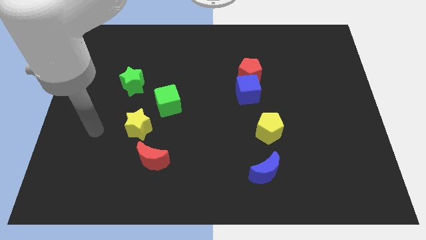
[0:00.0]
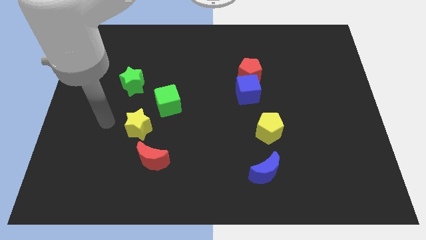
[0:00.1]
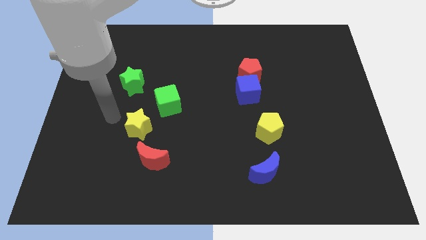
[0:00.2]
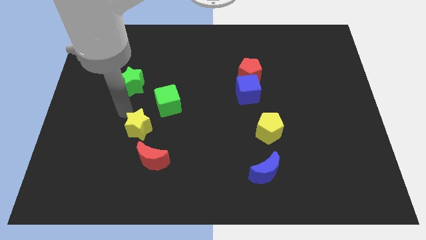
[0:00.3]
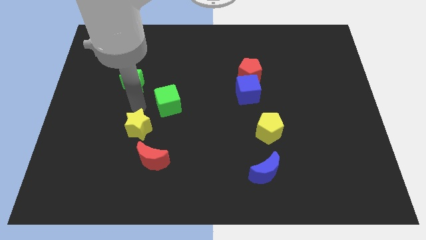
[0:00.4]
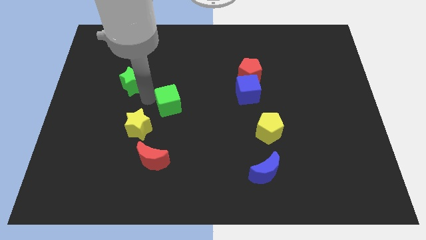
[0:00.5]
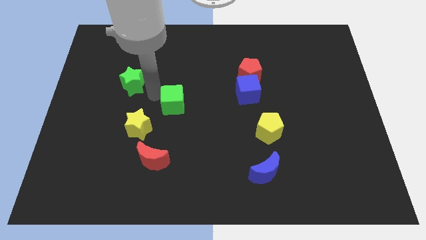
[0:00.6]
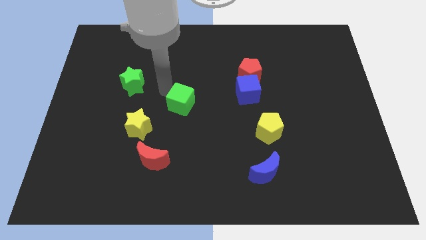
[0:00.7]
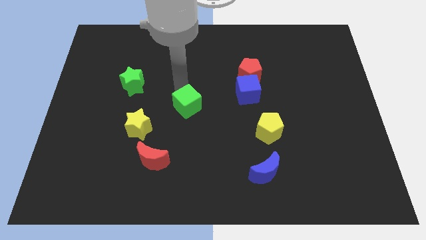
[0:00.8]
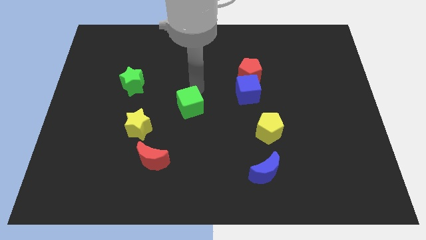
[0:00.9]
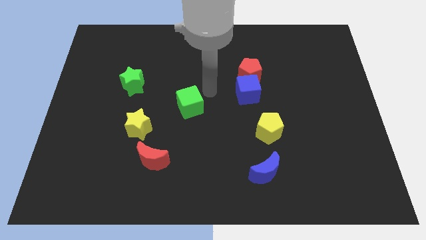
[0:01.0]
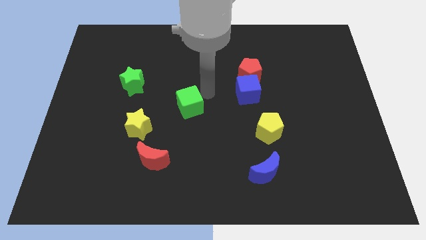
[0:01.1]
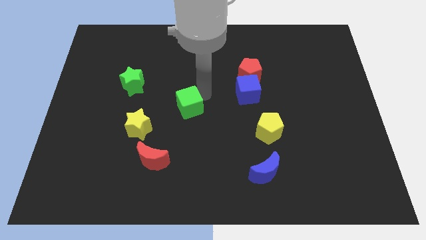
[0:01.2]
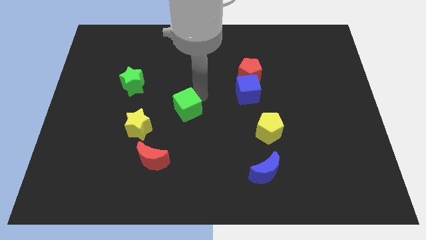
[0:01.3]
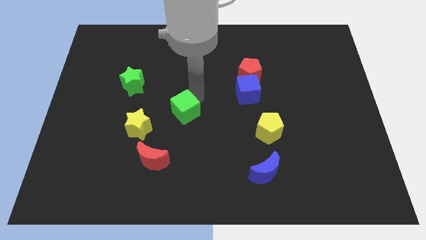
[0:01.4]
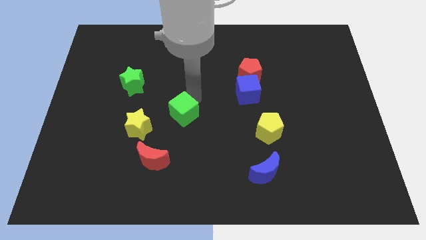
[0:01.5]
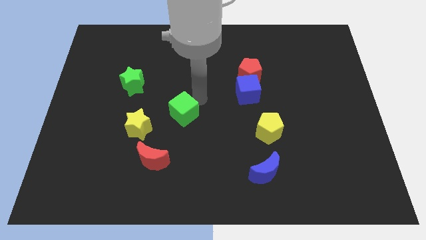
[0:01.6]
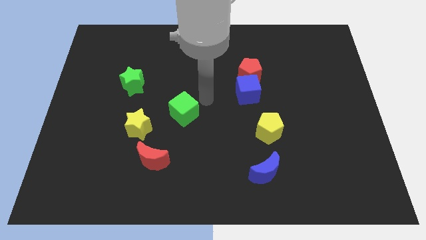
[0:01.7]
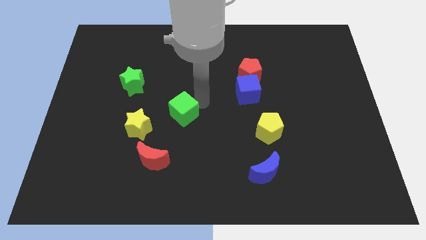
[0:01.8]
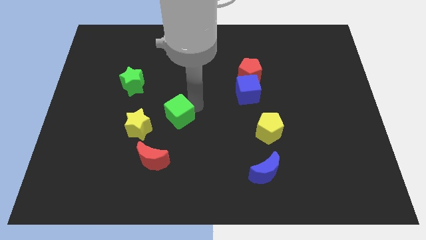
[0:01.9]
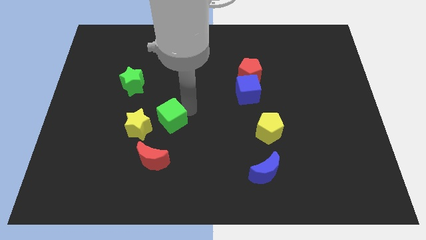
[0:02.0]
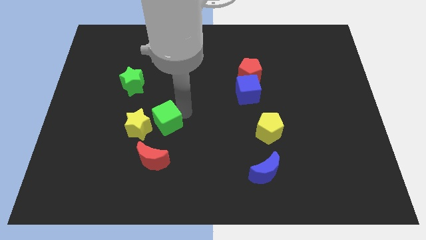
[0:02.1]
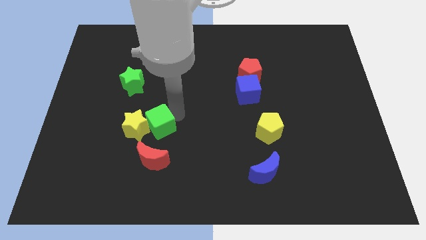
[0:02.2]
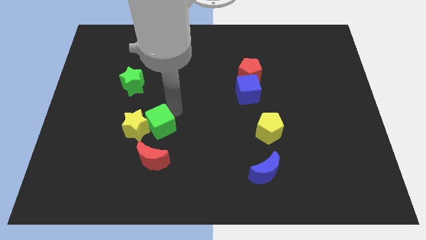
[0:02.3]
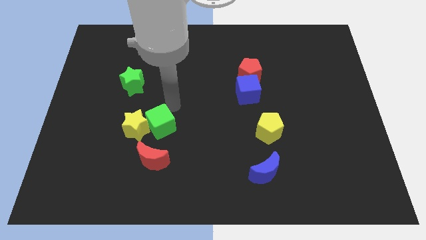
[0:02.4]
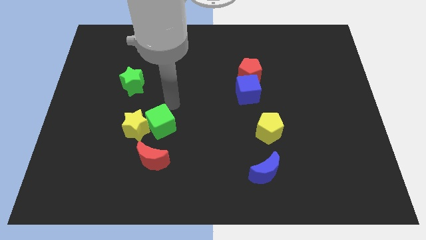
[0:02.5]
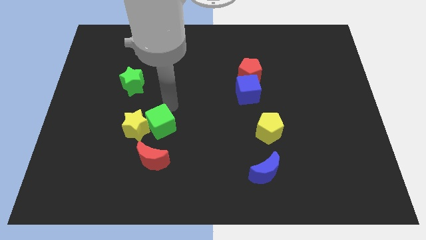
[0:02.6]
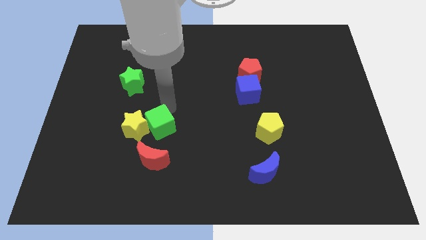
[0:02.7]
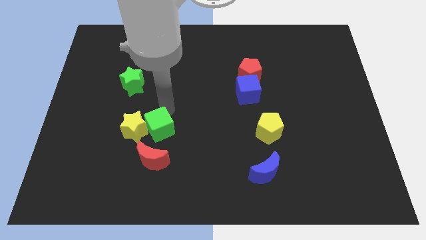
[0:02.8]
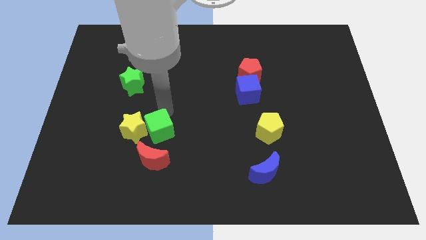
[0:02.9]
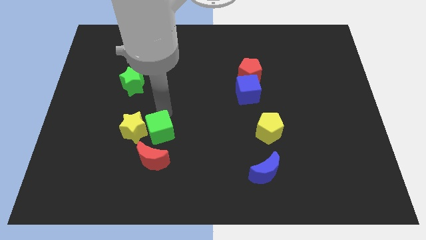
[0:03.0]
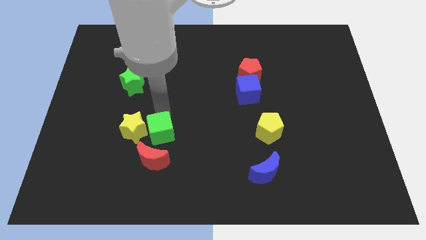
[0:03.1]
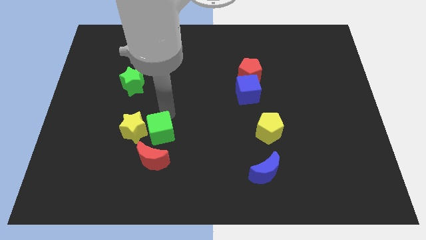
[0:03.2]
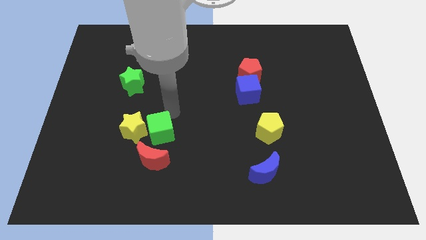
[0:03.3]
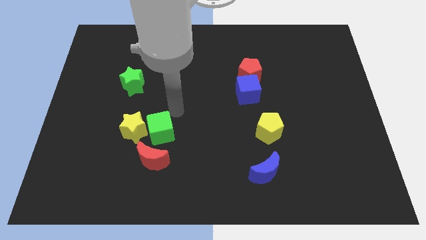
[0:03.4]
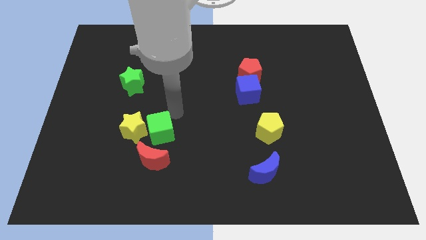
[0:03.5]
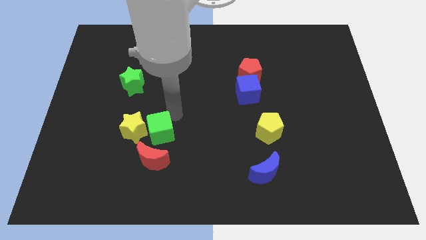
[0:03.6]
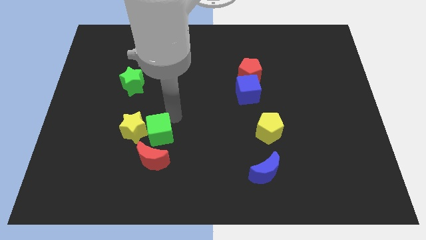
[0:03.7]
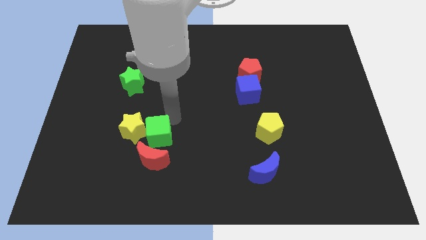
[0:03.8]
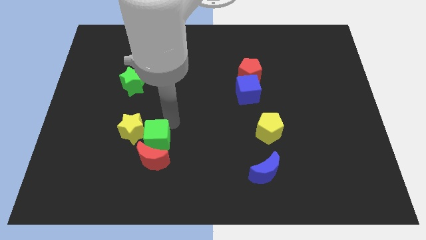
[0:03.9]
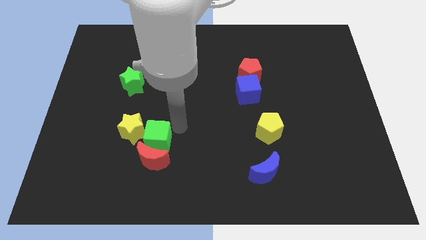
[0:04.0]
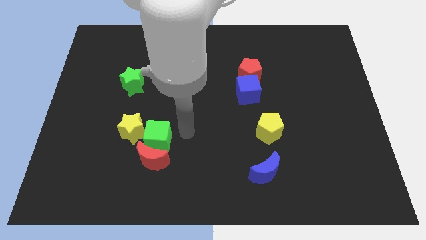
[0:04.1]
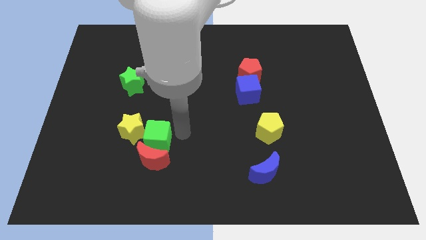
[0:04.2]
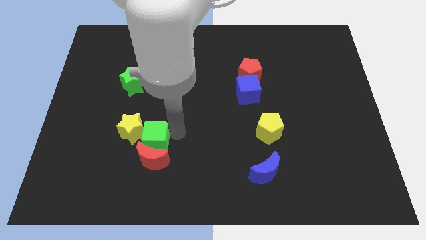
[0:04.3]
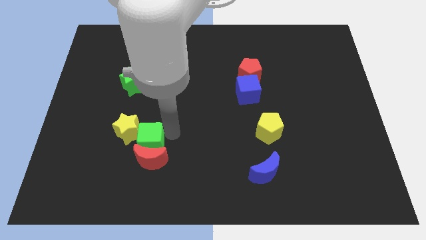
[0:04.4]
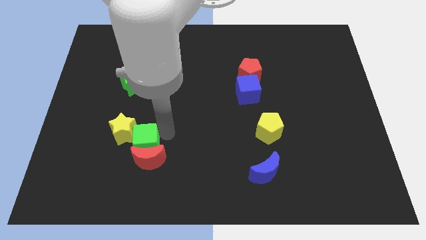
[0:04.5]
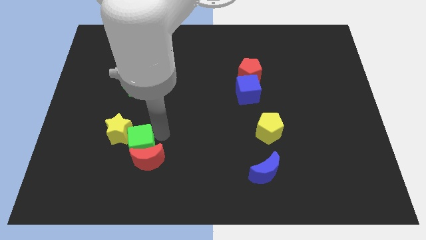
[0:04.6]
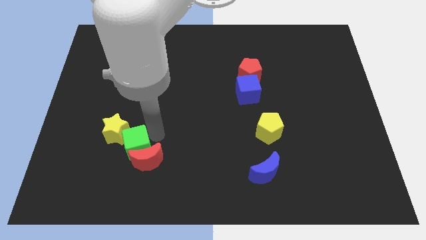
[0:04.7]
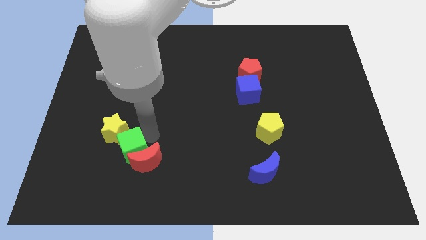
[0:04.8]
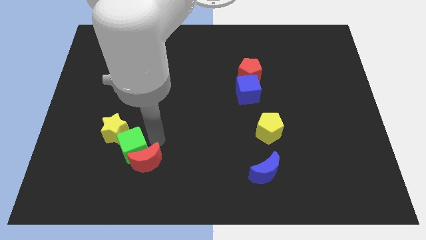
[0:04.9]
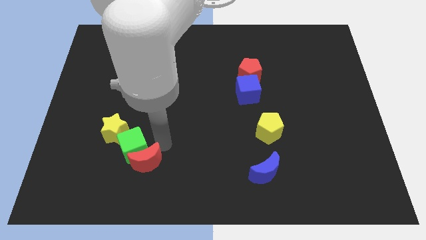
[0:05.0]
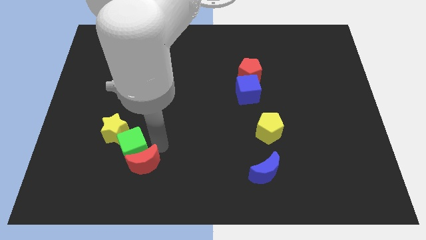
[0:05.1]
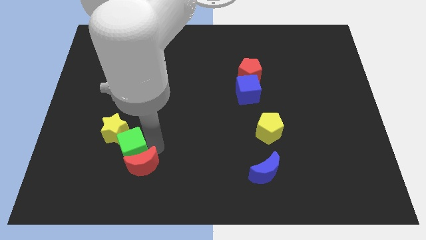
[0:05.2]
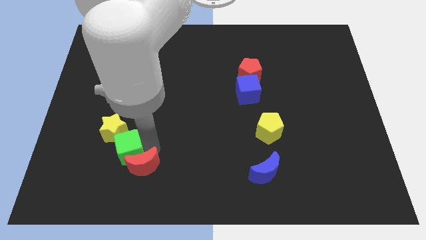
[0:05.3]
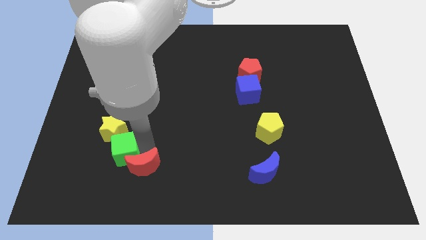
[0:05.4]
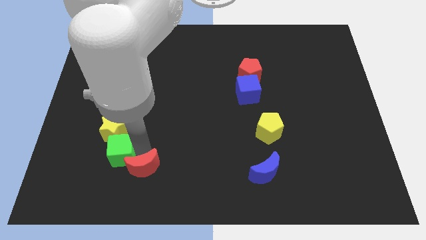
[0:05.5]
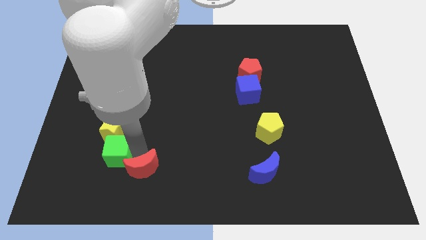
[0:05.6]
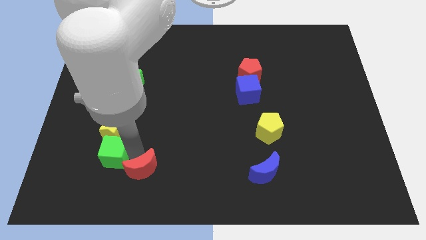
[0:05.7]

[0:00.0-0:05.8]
move the green cube to the bottom left side of the yellow star

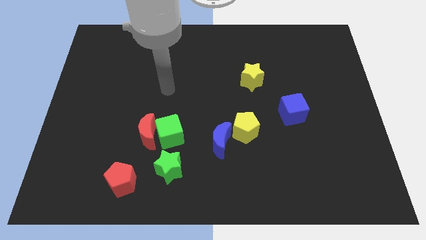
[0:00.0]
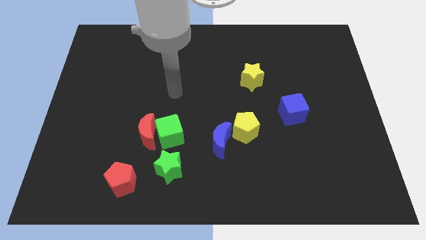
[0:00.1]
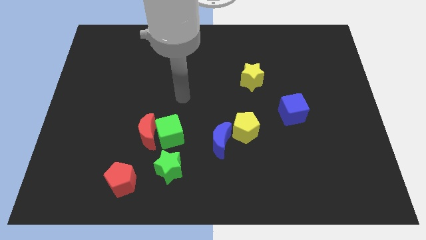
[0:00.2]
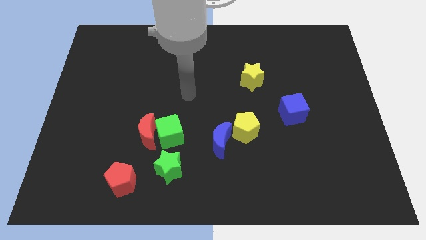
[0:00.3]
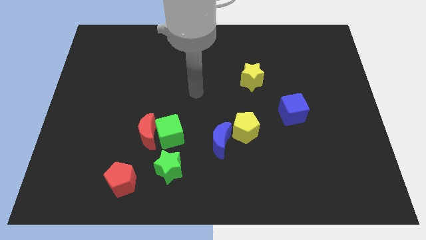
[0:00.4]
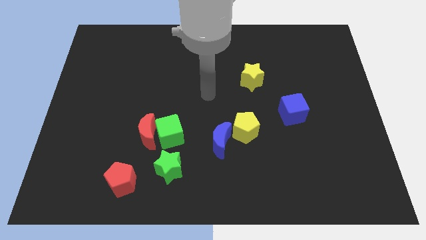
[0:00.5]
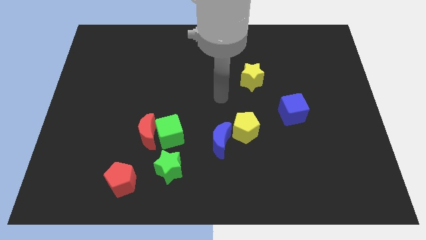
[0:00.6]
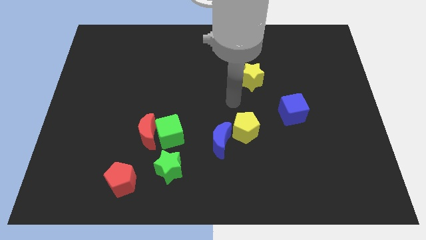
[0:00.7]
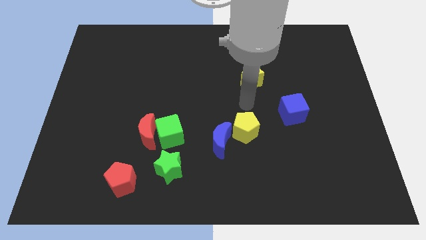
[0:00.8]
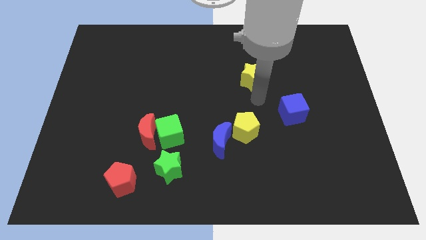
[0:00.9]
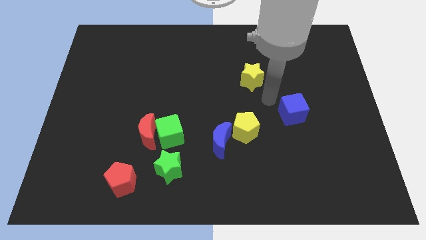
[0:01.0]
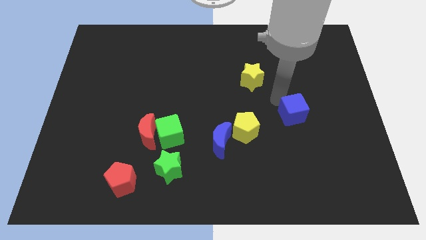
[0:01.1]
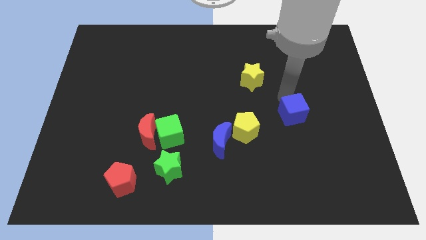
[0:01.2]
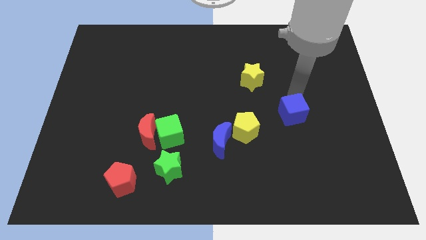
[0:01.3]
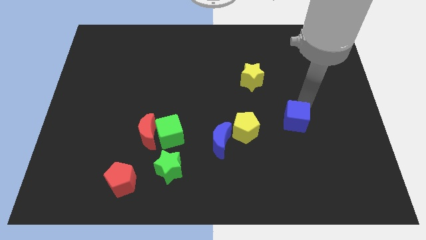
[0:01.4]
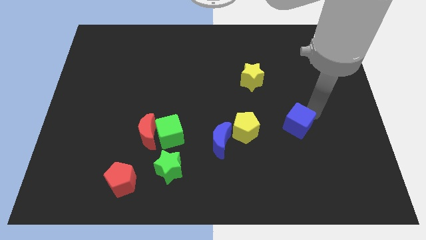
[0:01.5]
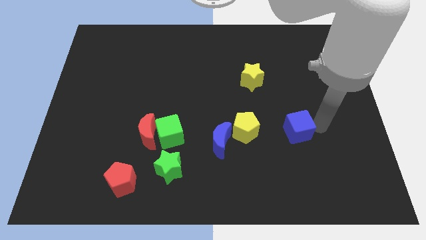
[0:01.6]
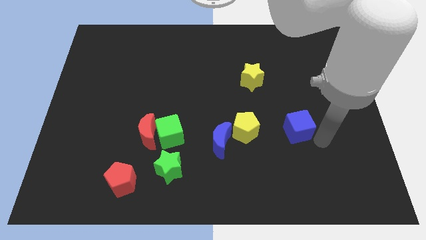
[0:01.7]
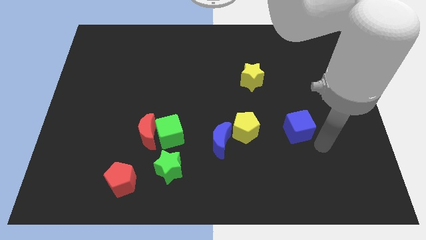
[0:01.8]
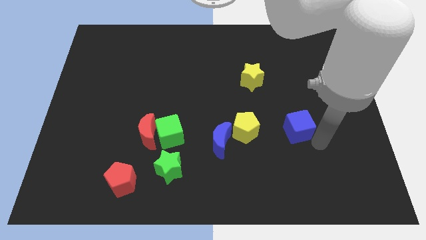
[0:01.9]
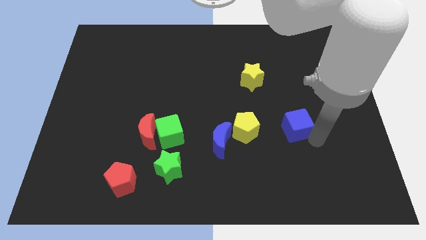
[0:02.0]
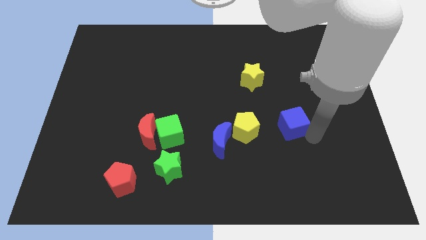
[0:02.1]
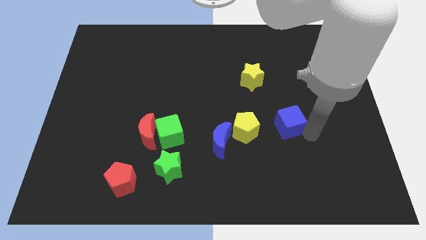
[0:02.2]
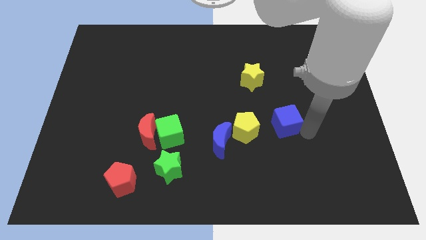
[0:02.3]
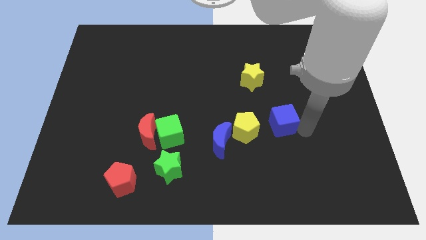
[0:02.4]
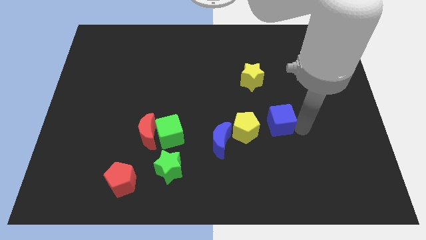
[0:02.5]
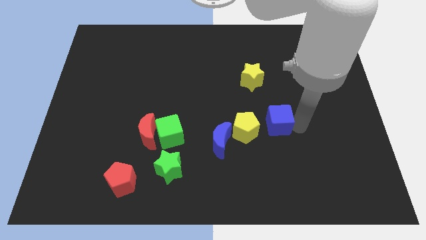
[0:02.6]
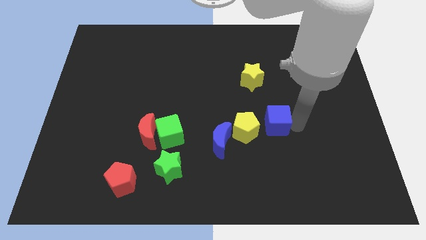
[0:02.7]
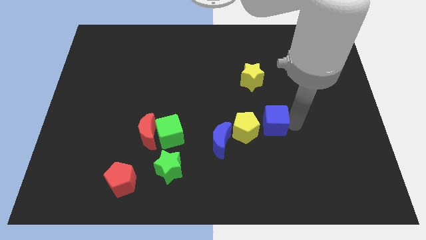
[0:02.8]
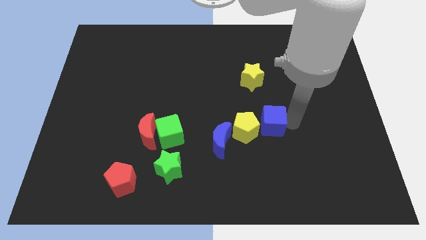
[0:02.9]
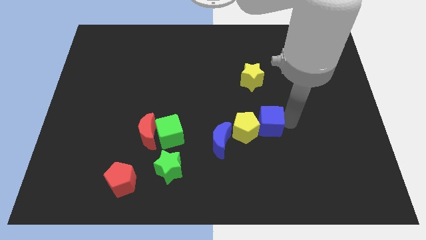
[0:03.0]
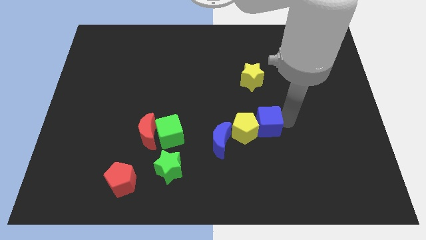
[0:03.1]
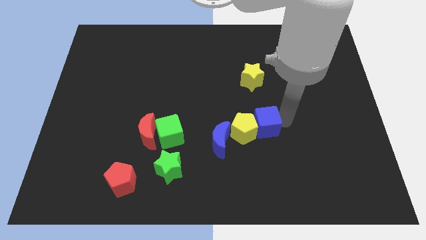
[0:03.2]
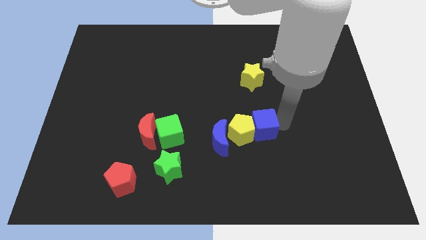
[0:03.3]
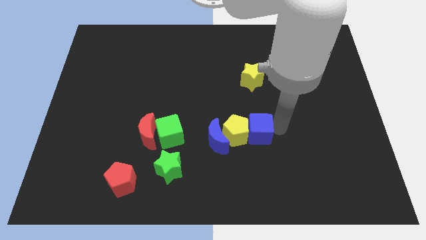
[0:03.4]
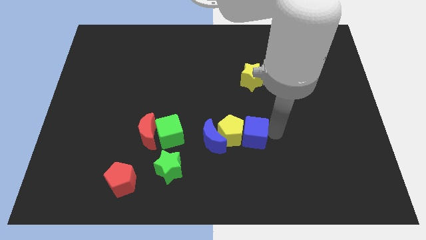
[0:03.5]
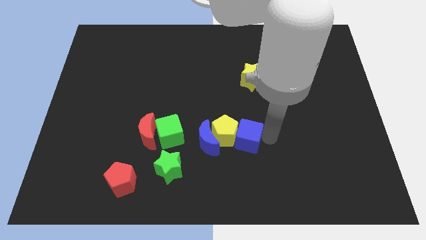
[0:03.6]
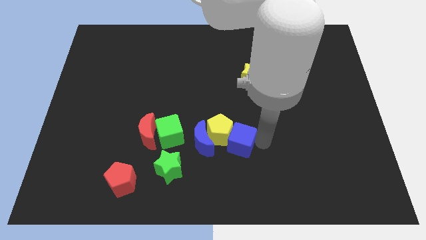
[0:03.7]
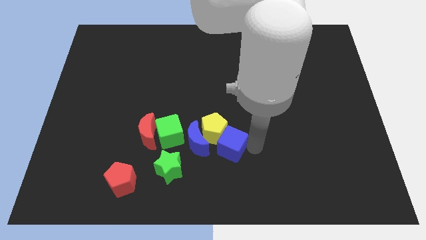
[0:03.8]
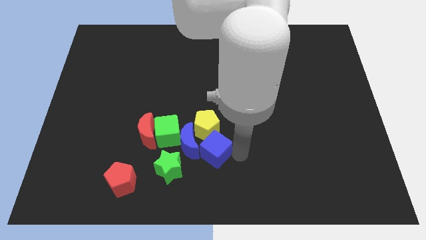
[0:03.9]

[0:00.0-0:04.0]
put the blue cube to the top right side of the green star
